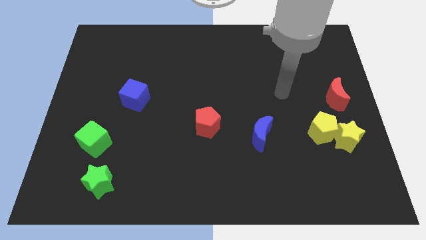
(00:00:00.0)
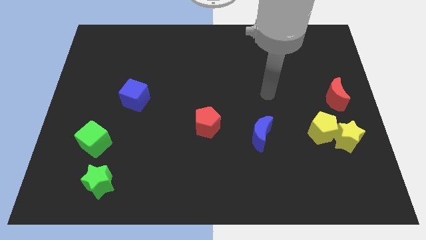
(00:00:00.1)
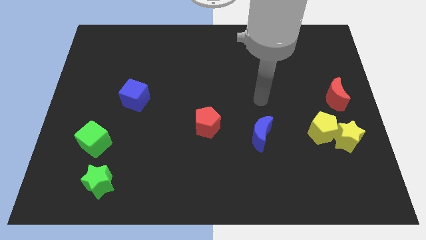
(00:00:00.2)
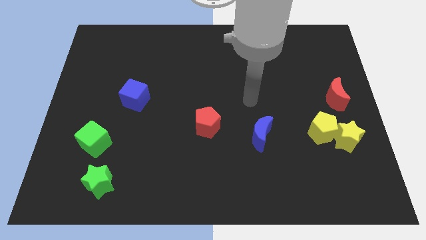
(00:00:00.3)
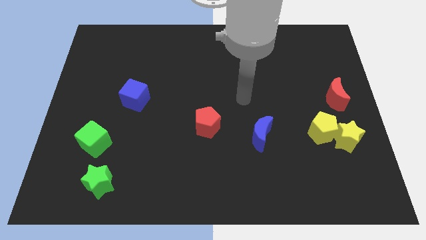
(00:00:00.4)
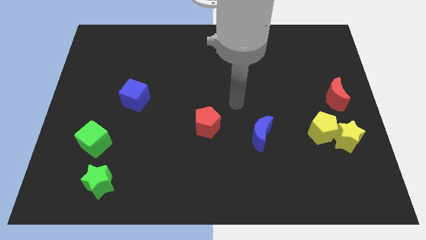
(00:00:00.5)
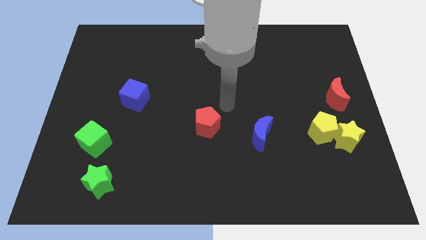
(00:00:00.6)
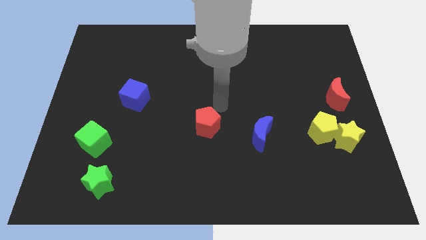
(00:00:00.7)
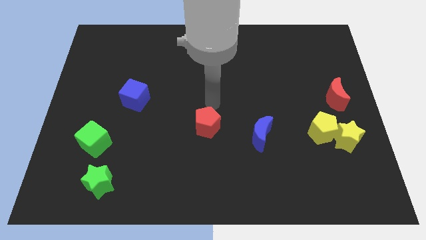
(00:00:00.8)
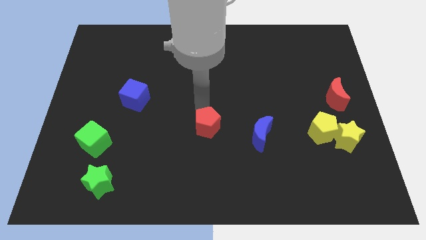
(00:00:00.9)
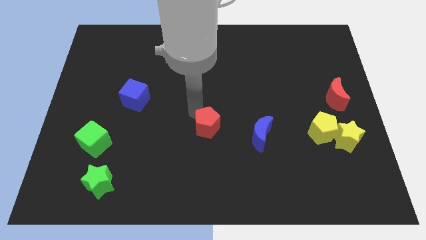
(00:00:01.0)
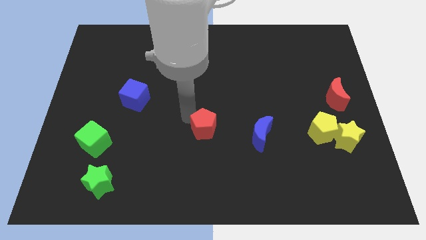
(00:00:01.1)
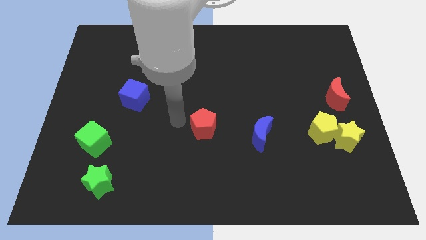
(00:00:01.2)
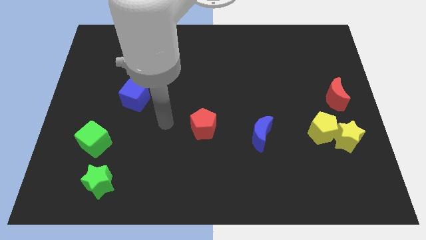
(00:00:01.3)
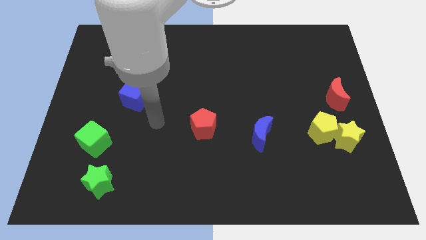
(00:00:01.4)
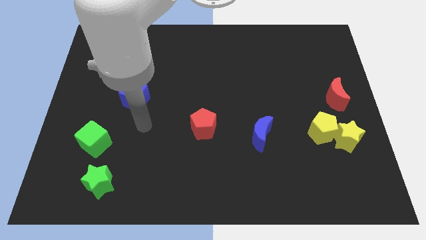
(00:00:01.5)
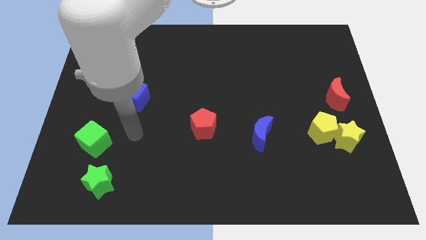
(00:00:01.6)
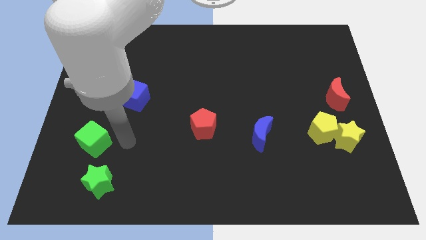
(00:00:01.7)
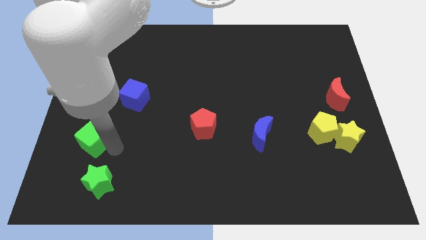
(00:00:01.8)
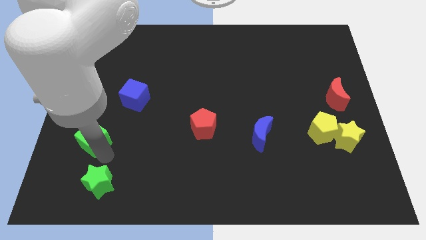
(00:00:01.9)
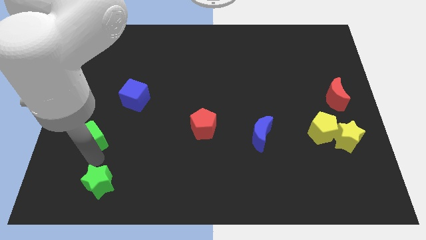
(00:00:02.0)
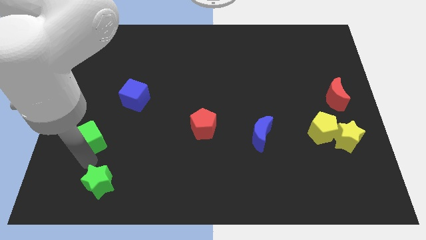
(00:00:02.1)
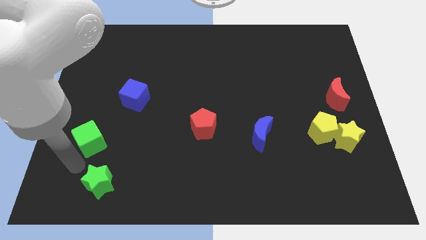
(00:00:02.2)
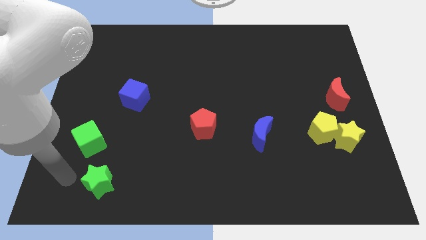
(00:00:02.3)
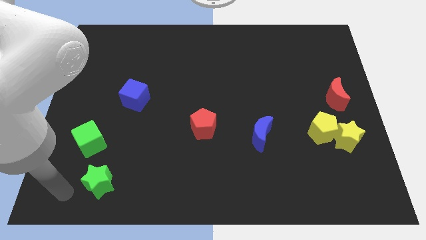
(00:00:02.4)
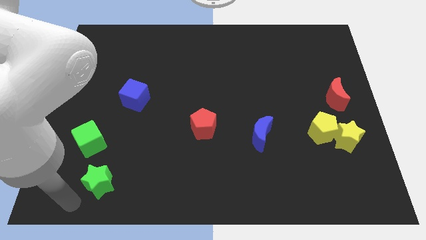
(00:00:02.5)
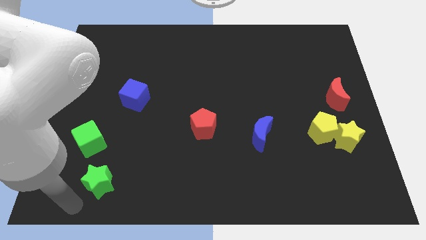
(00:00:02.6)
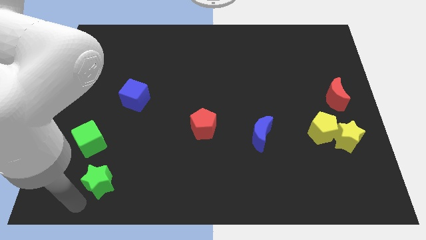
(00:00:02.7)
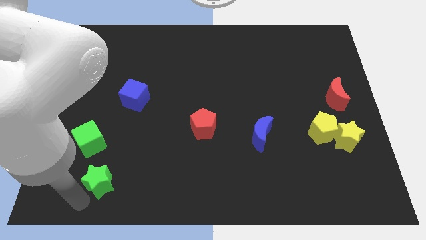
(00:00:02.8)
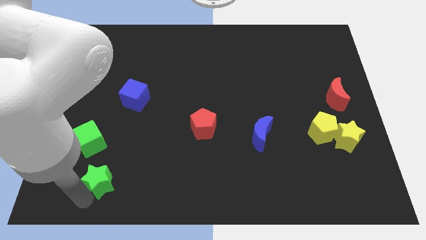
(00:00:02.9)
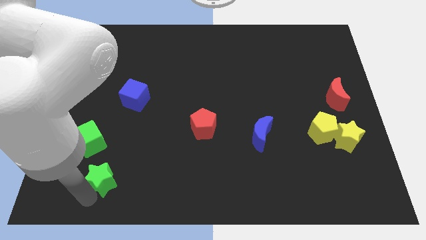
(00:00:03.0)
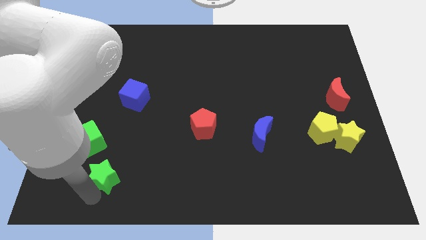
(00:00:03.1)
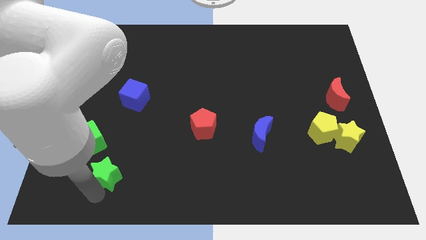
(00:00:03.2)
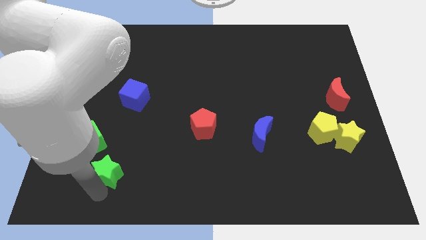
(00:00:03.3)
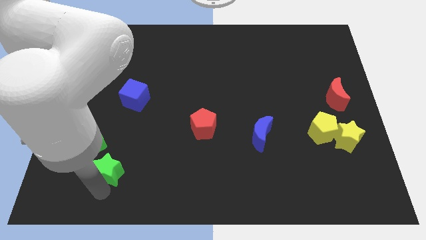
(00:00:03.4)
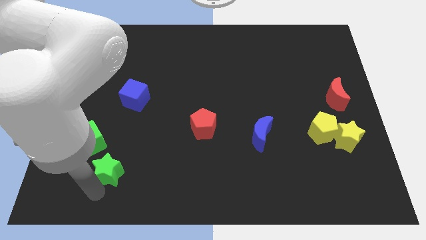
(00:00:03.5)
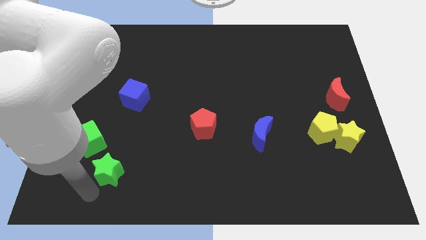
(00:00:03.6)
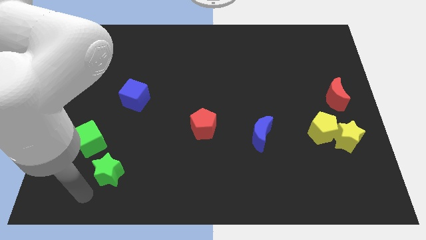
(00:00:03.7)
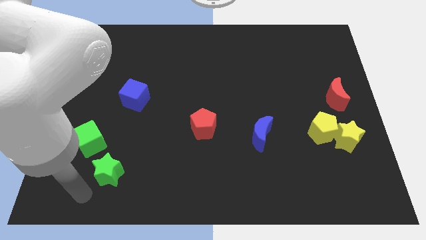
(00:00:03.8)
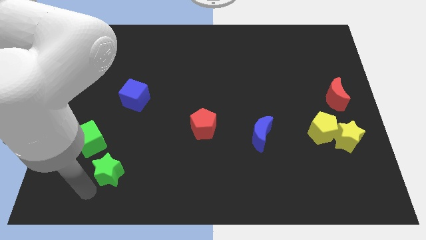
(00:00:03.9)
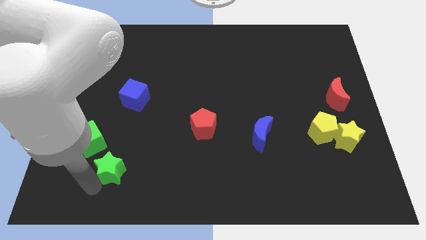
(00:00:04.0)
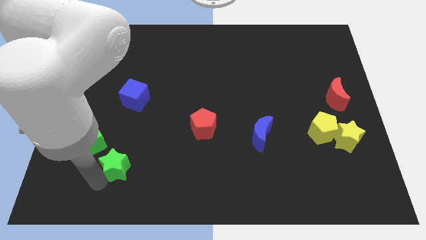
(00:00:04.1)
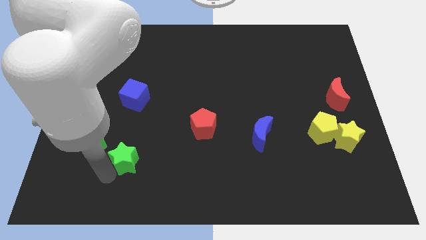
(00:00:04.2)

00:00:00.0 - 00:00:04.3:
slightly slide the green star up and then right

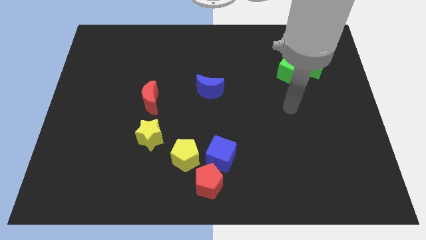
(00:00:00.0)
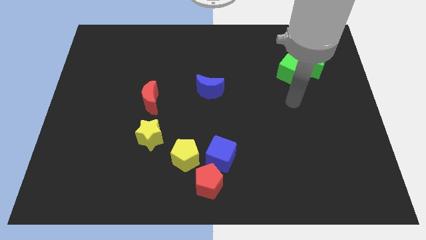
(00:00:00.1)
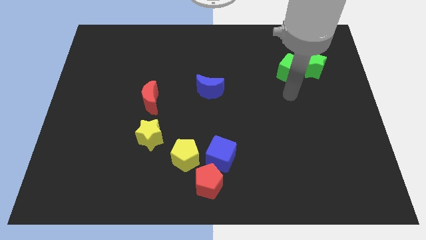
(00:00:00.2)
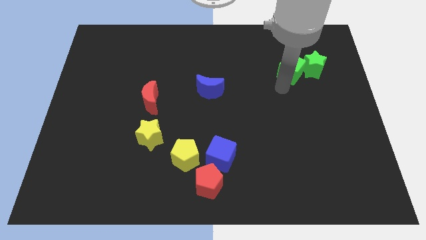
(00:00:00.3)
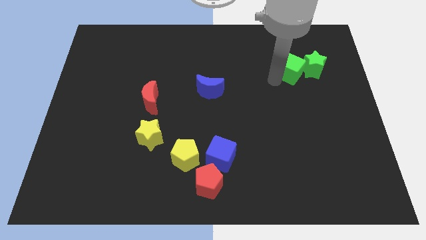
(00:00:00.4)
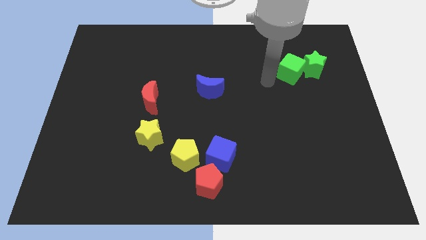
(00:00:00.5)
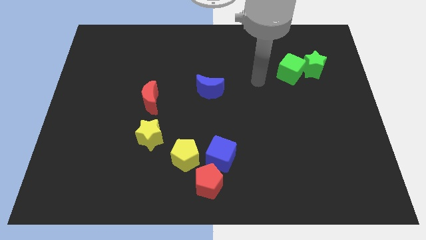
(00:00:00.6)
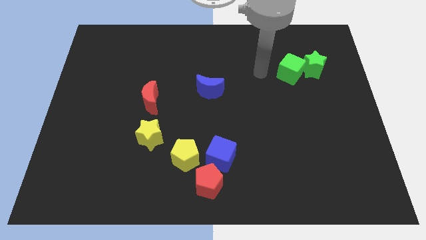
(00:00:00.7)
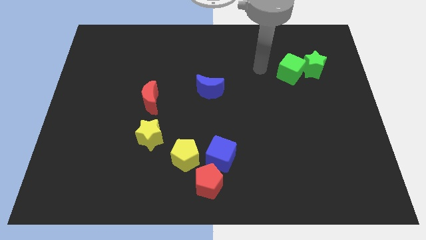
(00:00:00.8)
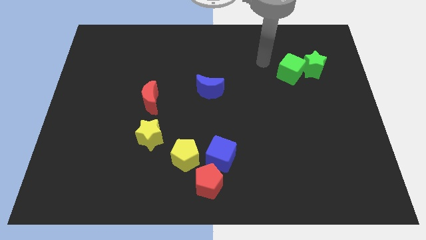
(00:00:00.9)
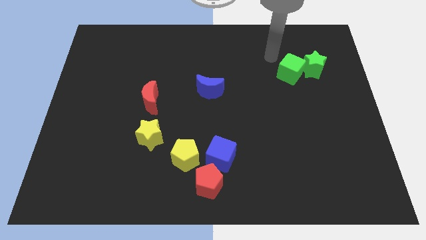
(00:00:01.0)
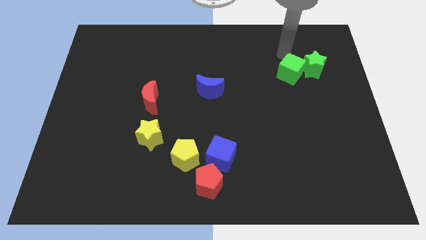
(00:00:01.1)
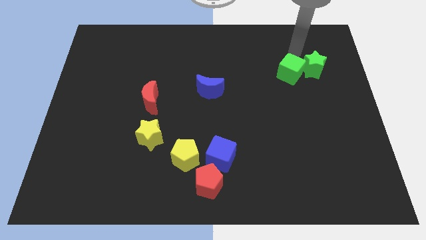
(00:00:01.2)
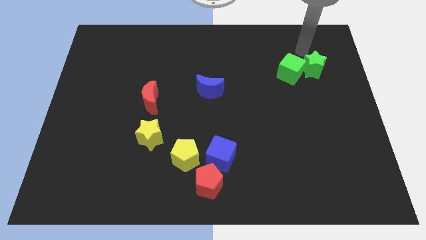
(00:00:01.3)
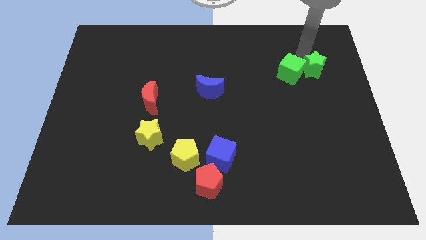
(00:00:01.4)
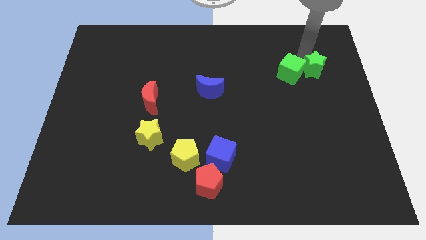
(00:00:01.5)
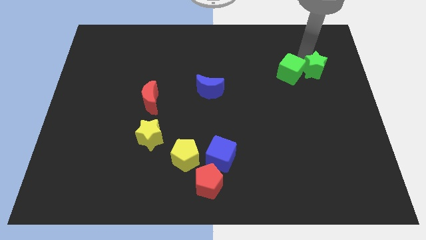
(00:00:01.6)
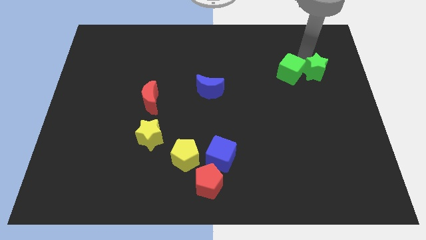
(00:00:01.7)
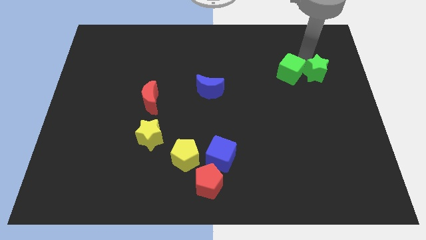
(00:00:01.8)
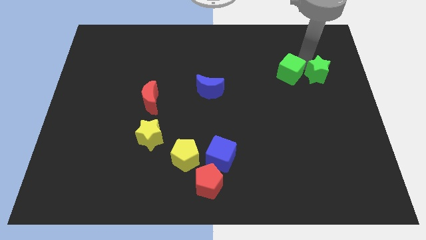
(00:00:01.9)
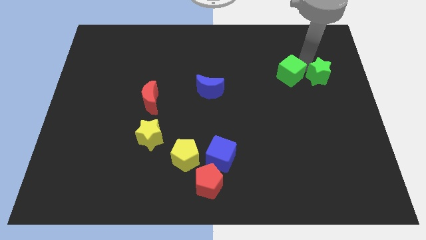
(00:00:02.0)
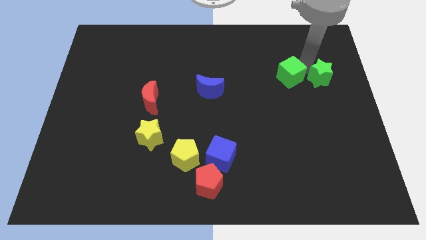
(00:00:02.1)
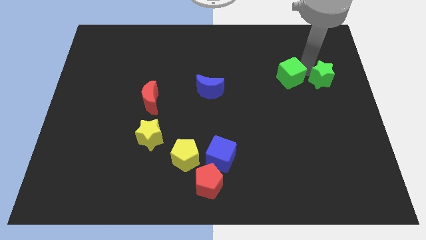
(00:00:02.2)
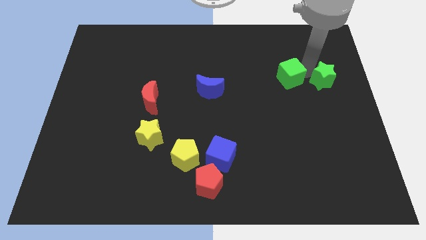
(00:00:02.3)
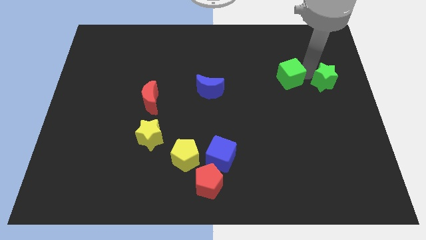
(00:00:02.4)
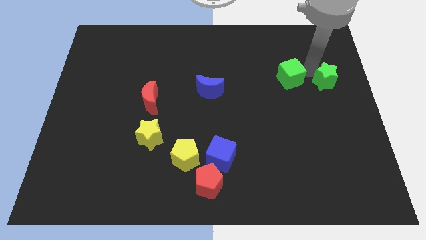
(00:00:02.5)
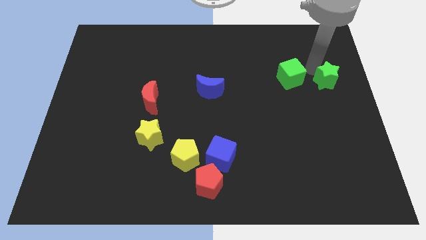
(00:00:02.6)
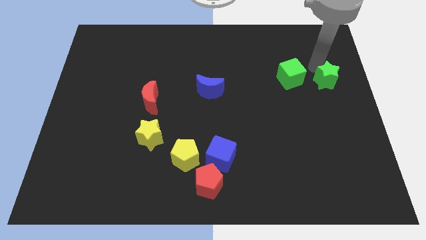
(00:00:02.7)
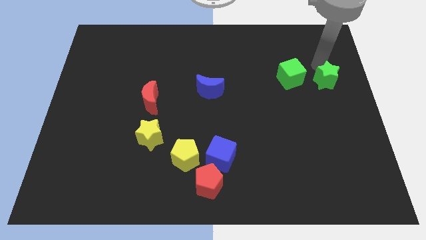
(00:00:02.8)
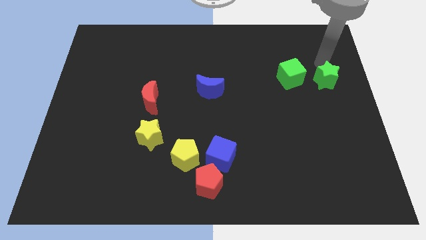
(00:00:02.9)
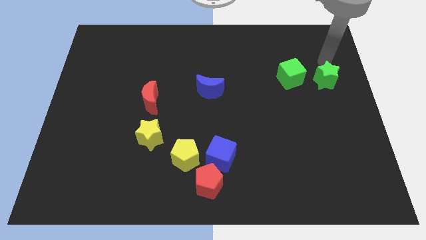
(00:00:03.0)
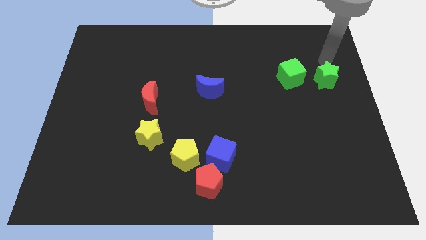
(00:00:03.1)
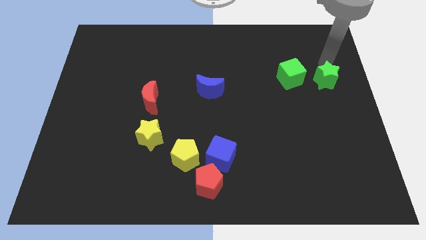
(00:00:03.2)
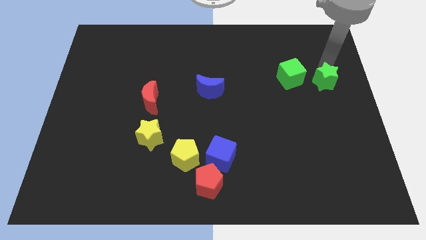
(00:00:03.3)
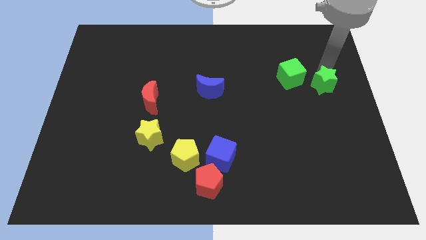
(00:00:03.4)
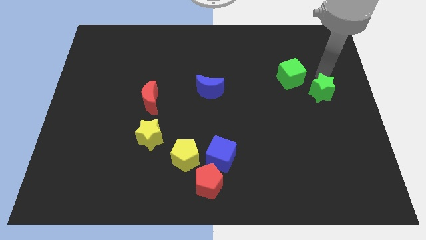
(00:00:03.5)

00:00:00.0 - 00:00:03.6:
slightly slide the green star downwards
